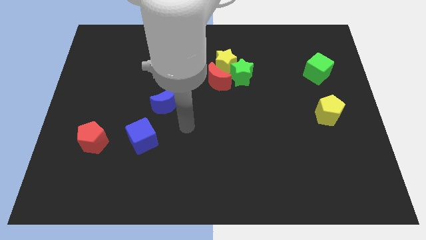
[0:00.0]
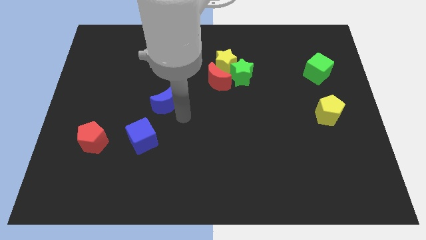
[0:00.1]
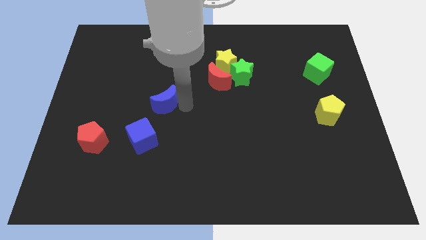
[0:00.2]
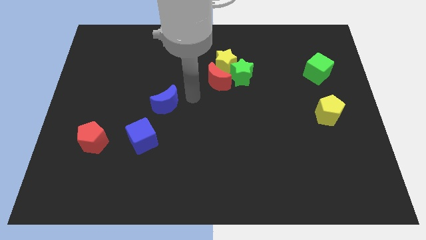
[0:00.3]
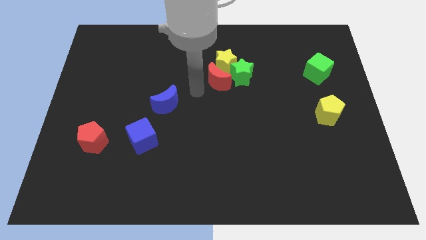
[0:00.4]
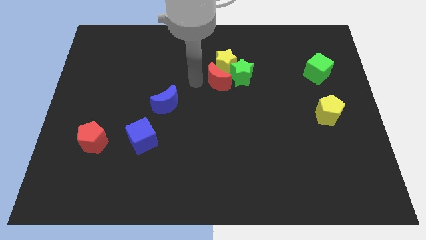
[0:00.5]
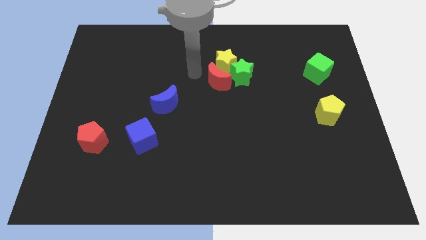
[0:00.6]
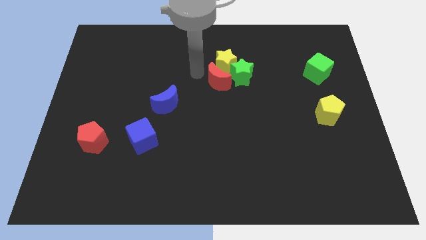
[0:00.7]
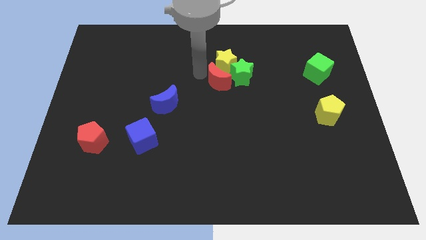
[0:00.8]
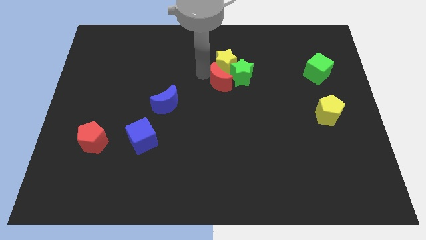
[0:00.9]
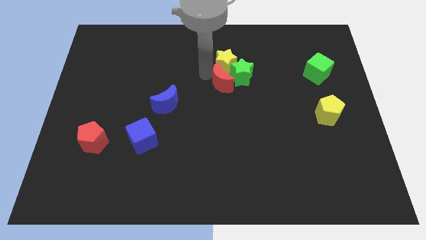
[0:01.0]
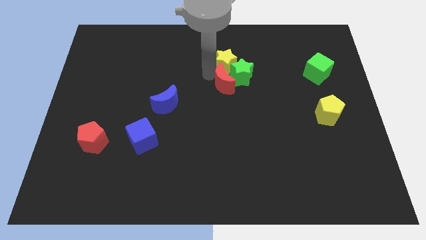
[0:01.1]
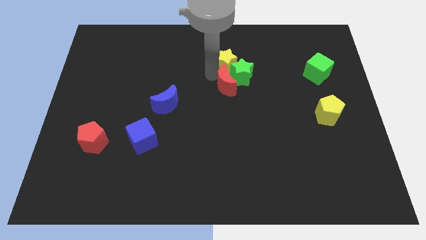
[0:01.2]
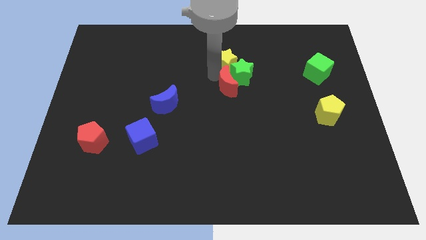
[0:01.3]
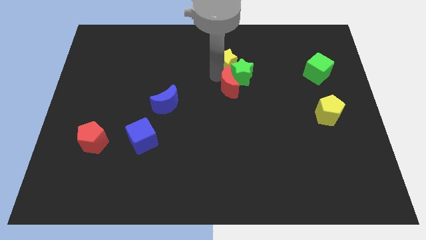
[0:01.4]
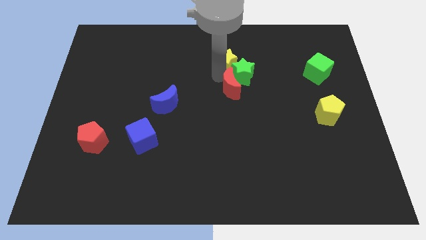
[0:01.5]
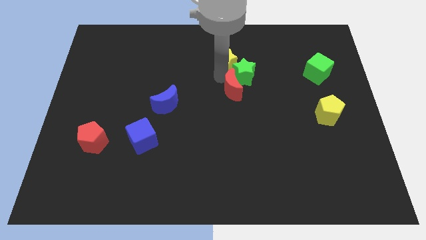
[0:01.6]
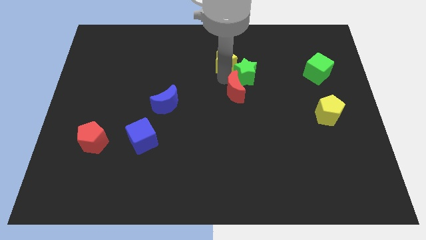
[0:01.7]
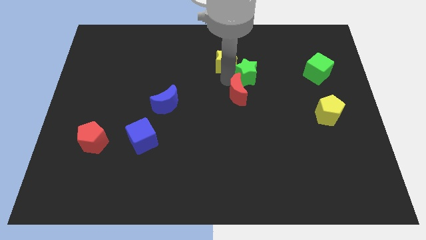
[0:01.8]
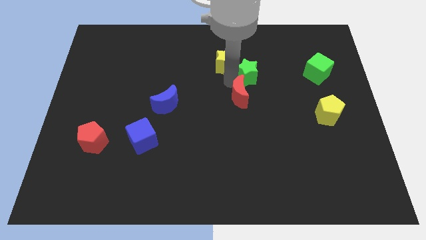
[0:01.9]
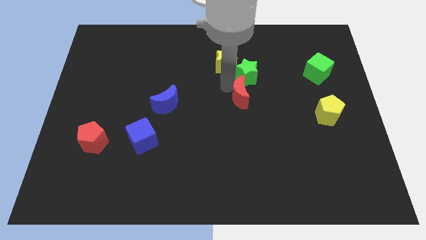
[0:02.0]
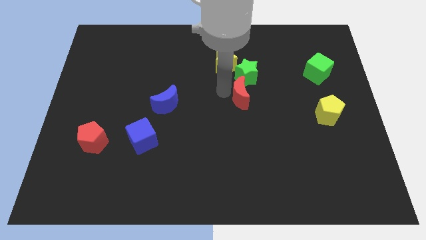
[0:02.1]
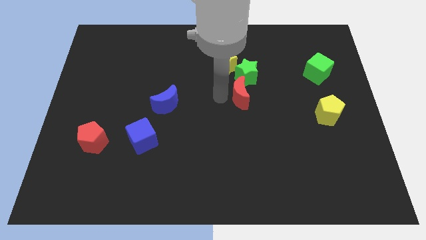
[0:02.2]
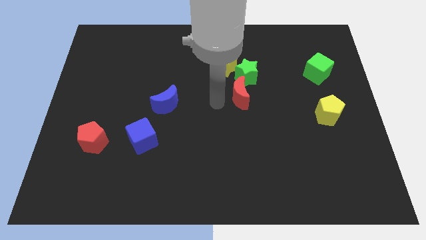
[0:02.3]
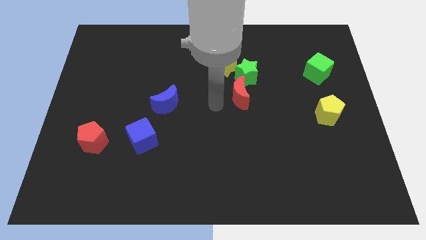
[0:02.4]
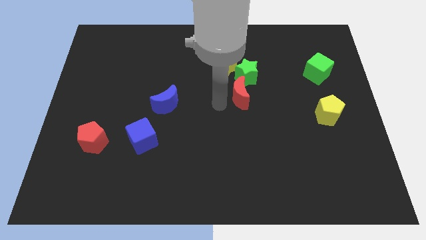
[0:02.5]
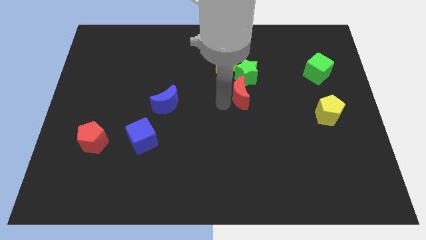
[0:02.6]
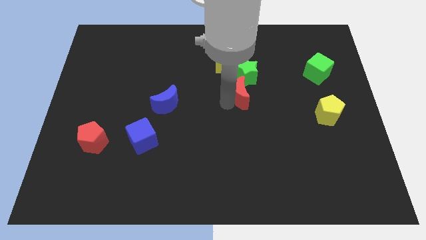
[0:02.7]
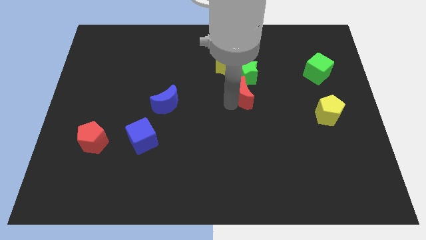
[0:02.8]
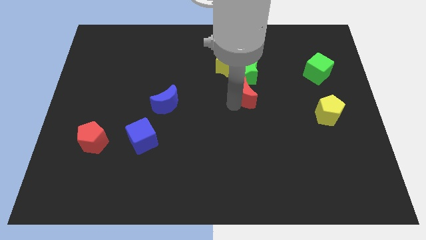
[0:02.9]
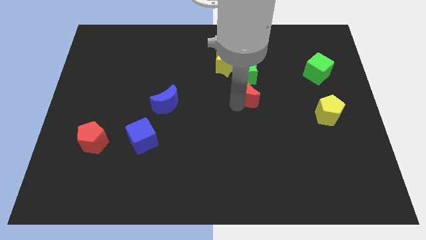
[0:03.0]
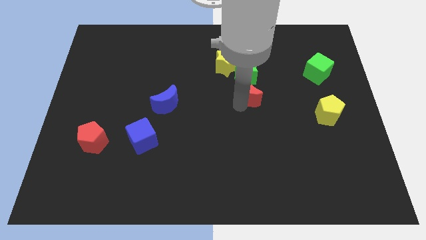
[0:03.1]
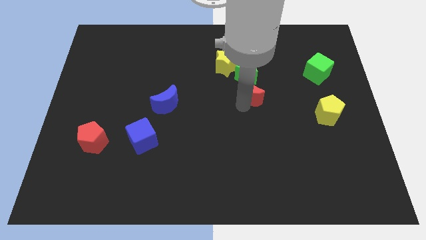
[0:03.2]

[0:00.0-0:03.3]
move the red moon a little bit to the right

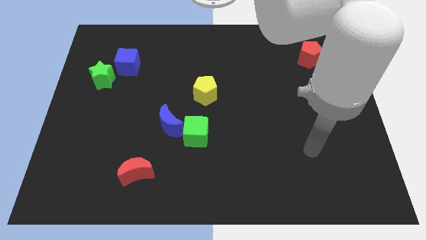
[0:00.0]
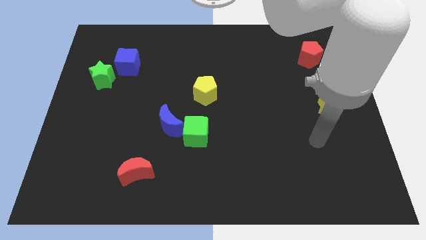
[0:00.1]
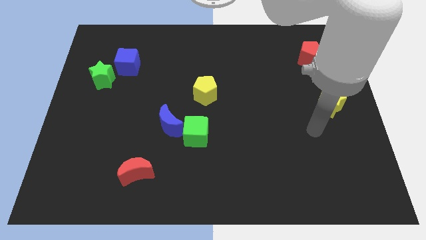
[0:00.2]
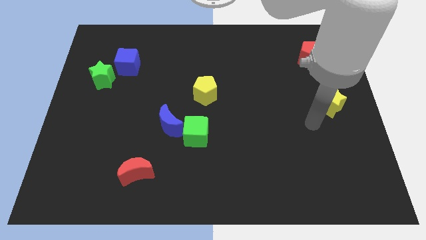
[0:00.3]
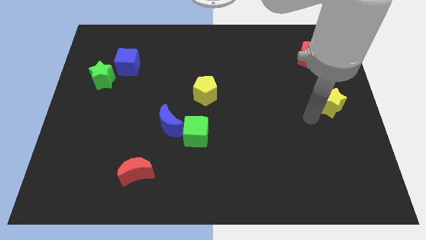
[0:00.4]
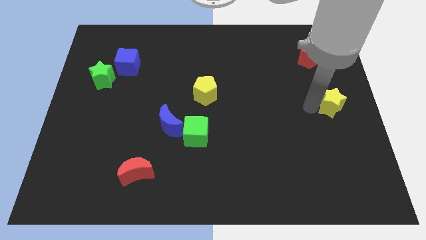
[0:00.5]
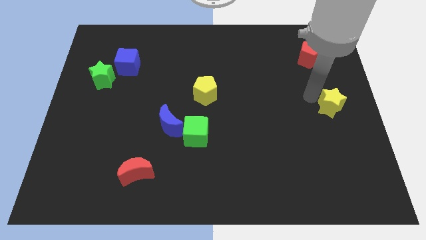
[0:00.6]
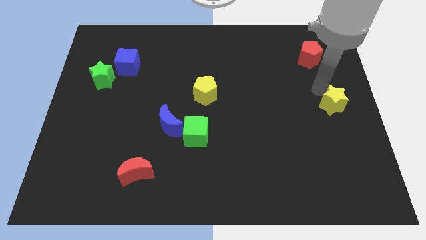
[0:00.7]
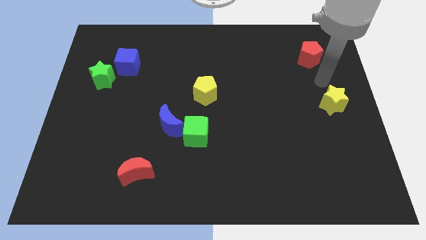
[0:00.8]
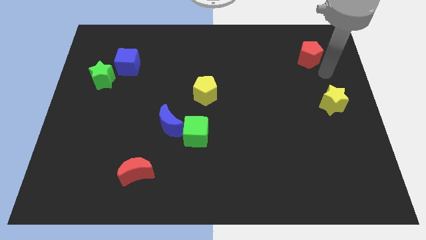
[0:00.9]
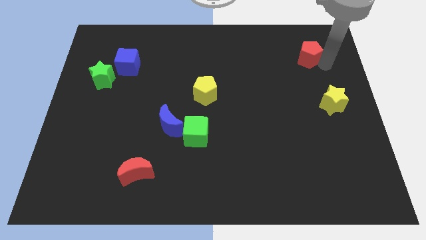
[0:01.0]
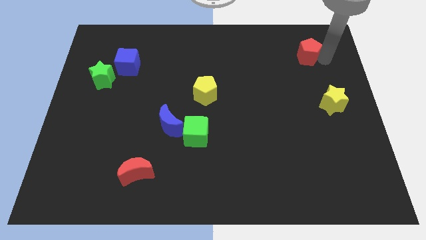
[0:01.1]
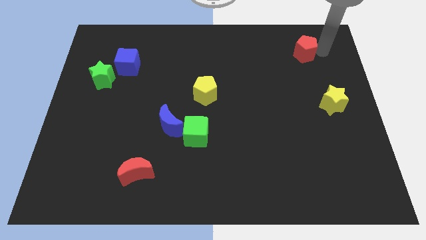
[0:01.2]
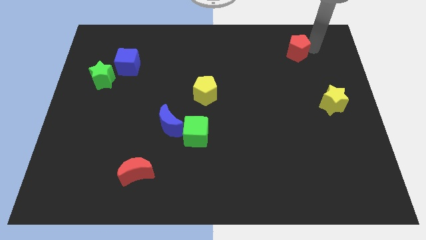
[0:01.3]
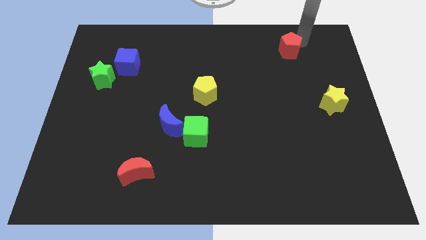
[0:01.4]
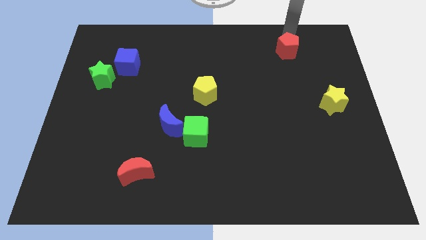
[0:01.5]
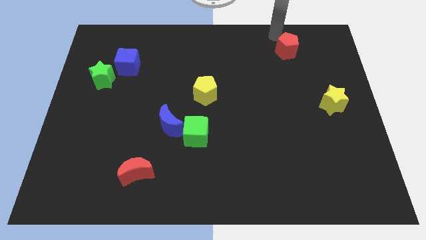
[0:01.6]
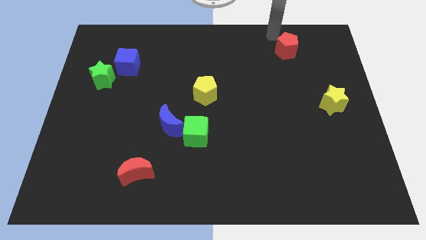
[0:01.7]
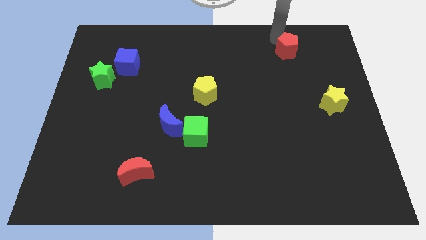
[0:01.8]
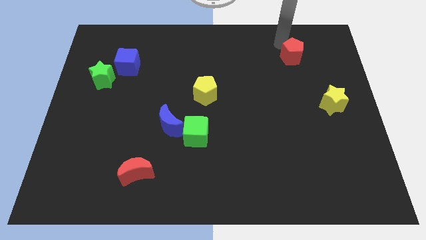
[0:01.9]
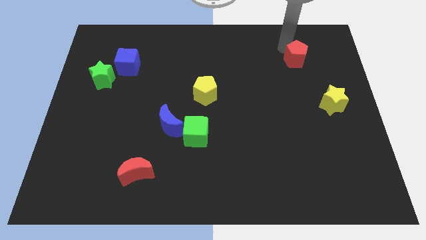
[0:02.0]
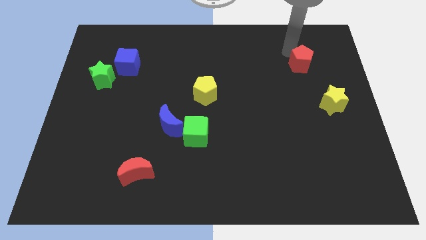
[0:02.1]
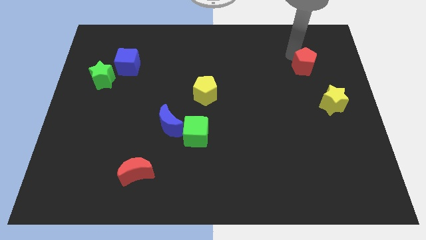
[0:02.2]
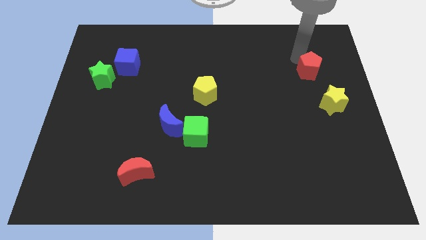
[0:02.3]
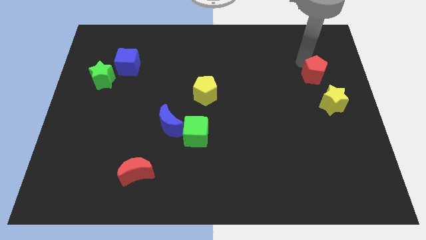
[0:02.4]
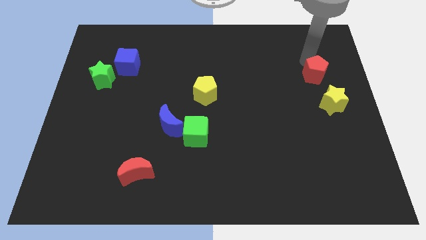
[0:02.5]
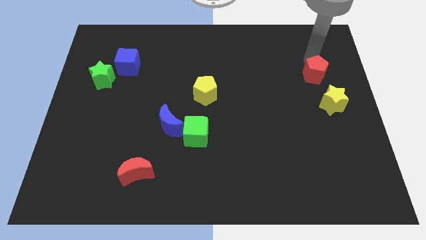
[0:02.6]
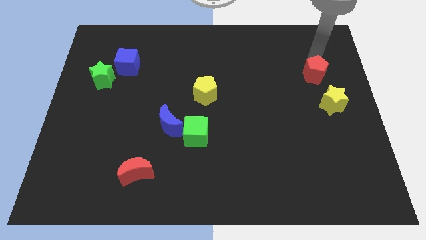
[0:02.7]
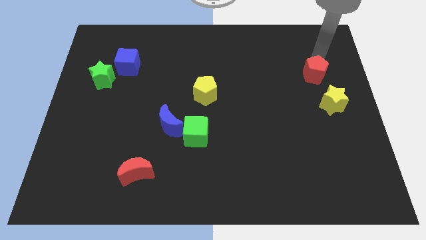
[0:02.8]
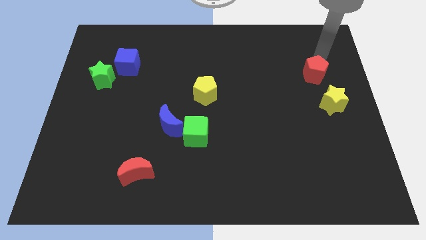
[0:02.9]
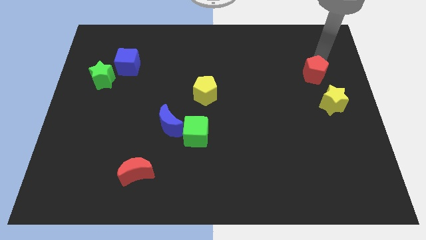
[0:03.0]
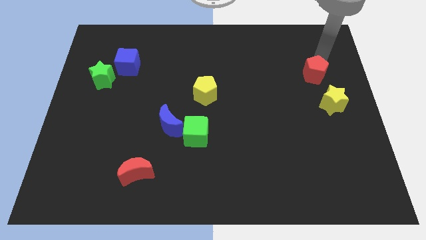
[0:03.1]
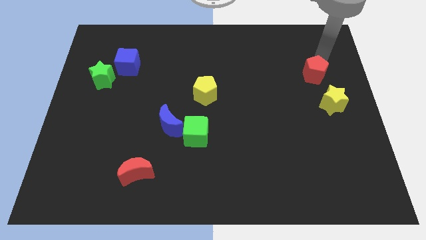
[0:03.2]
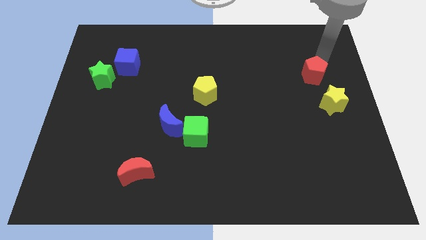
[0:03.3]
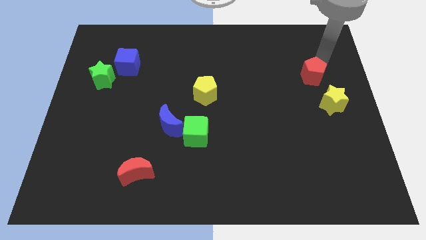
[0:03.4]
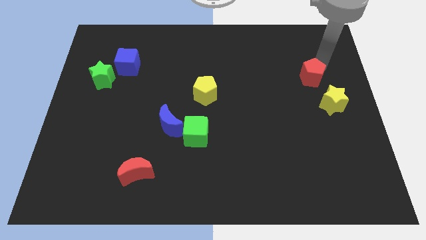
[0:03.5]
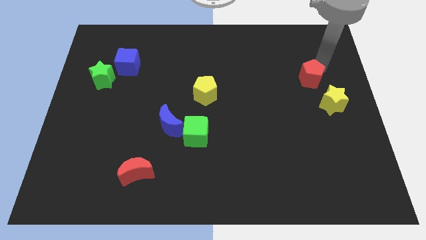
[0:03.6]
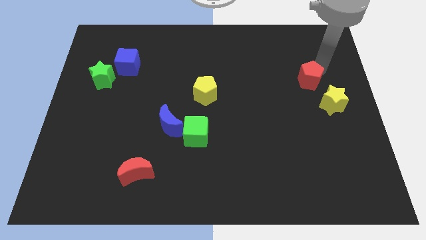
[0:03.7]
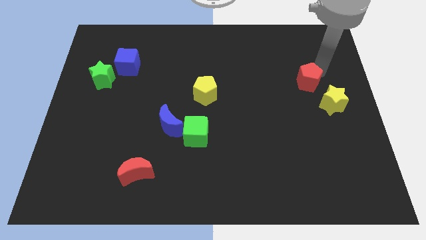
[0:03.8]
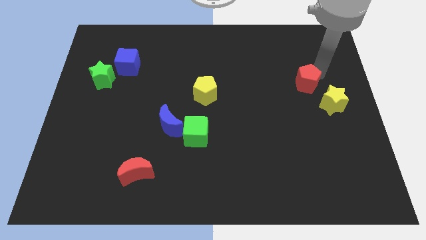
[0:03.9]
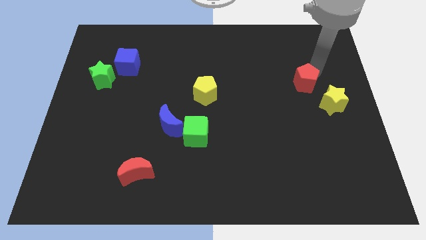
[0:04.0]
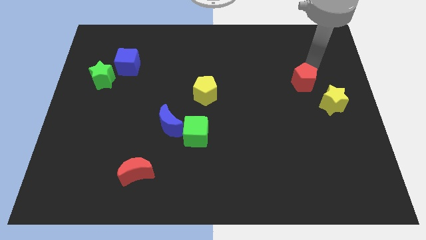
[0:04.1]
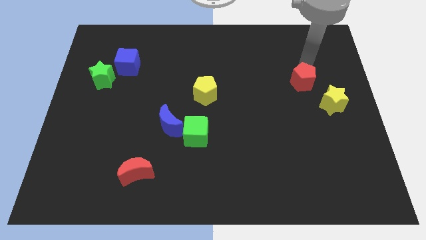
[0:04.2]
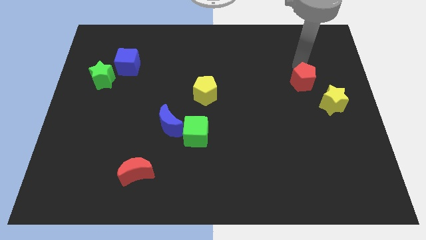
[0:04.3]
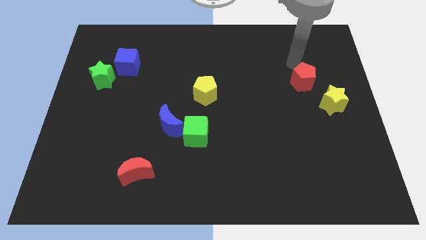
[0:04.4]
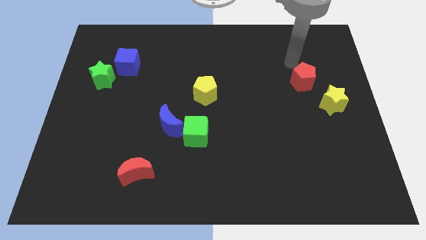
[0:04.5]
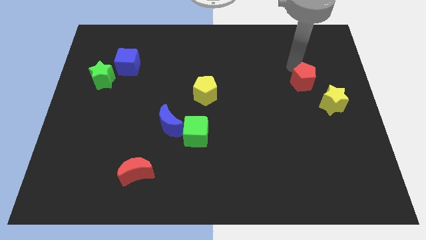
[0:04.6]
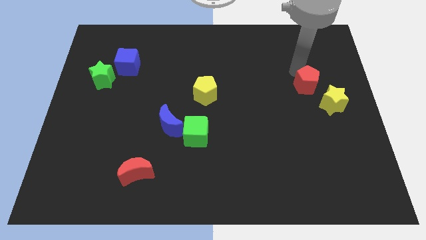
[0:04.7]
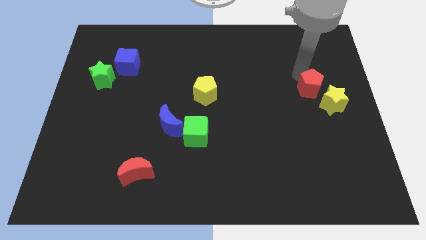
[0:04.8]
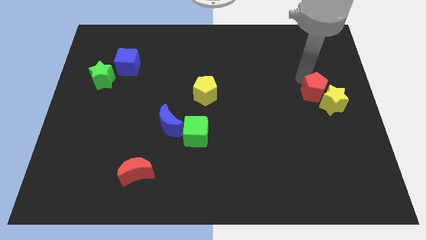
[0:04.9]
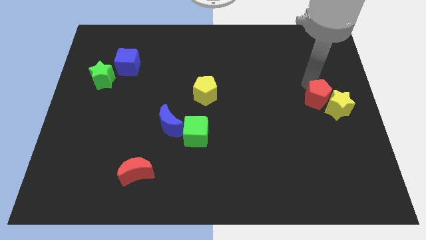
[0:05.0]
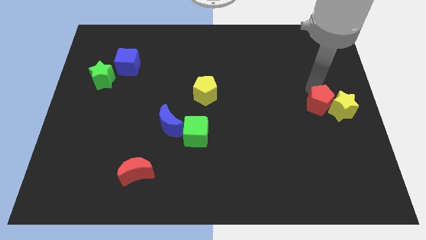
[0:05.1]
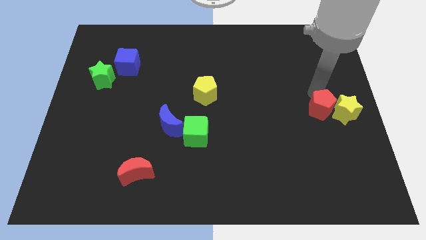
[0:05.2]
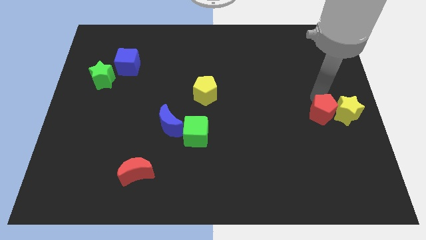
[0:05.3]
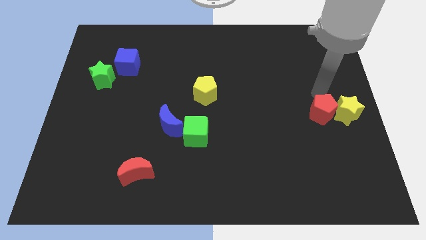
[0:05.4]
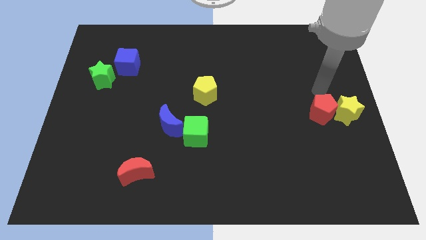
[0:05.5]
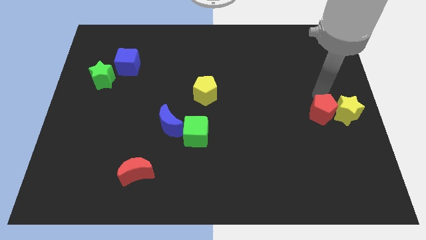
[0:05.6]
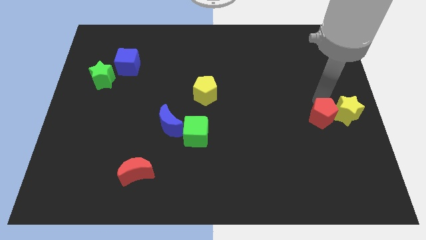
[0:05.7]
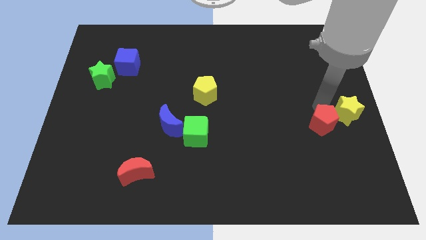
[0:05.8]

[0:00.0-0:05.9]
move the red pentagon down
